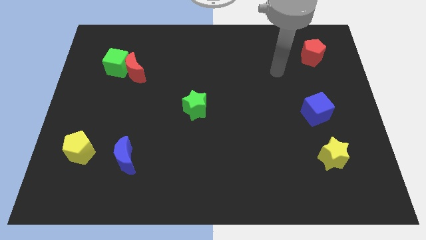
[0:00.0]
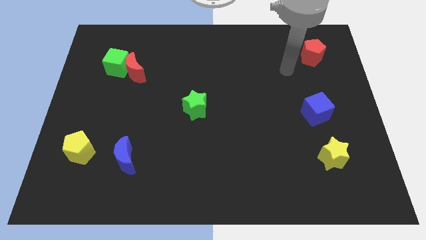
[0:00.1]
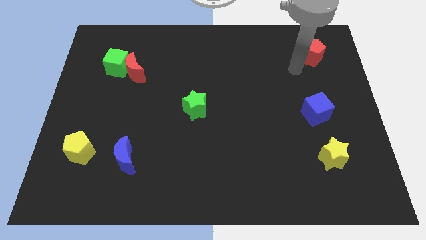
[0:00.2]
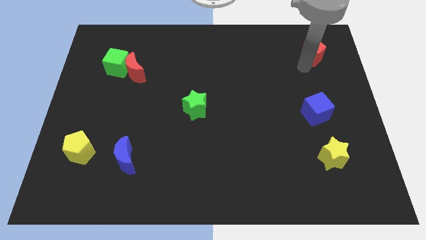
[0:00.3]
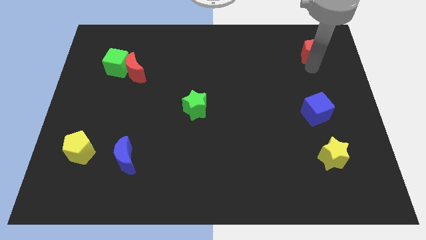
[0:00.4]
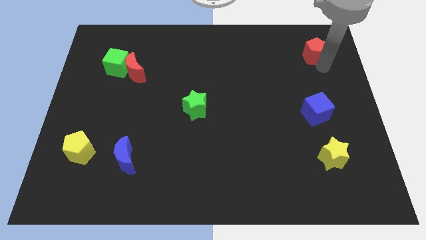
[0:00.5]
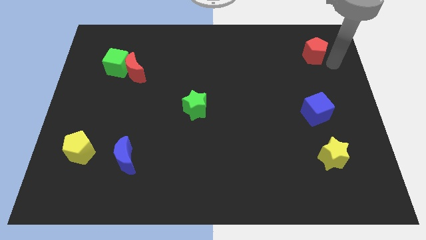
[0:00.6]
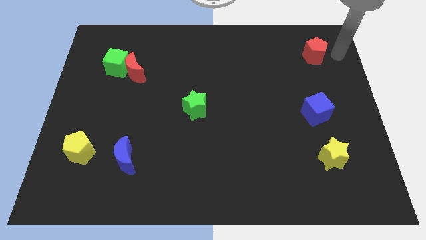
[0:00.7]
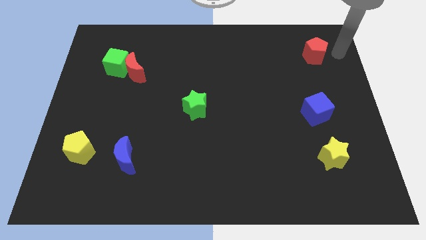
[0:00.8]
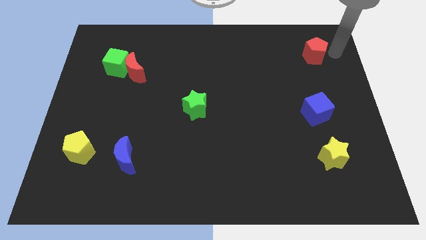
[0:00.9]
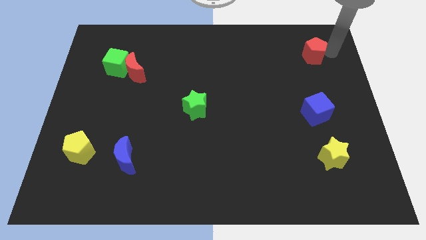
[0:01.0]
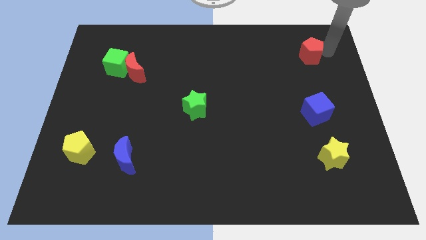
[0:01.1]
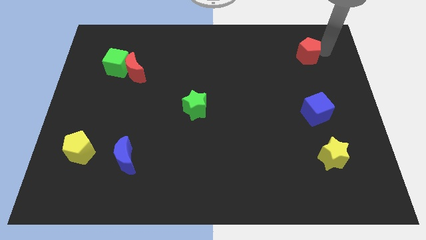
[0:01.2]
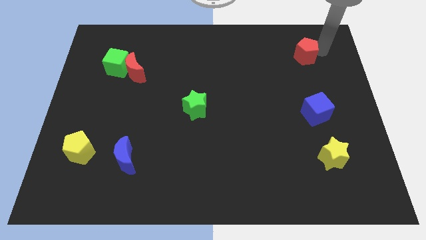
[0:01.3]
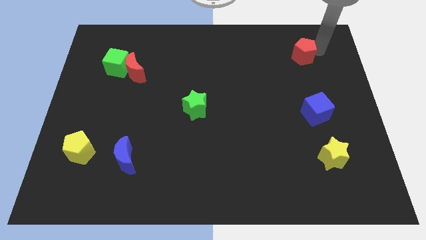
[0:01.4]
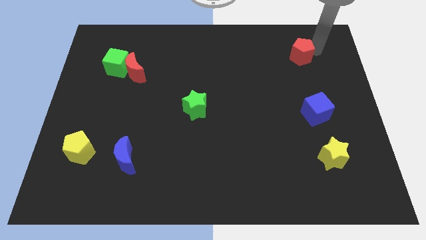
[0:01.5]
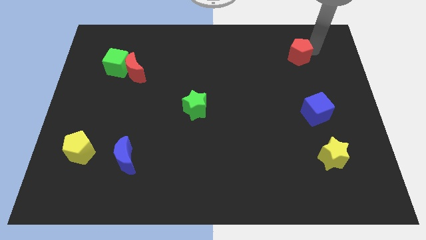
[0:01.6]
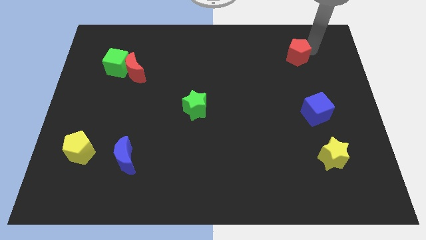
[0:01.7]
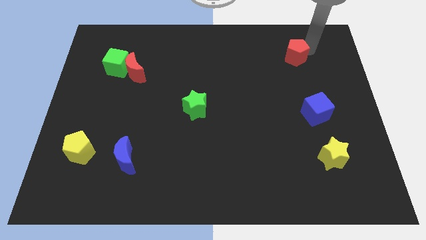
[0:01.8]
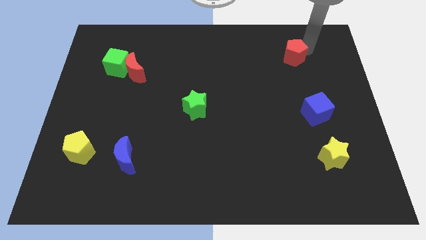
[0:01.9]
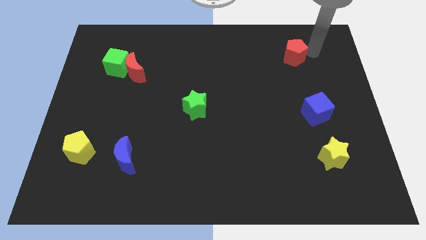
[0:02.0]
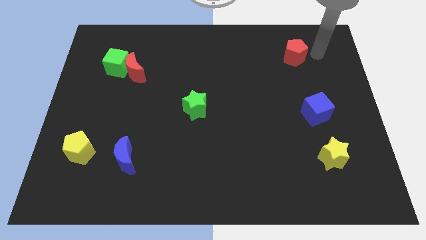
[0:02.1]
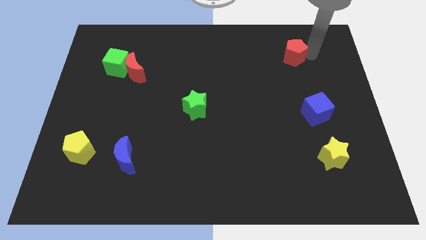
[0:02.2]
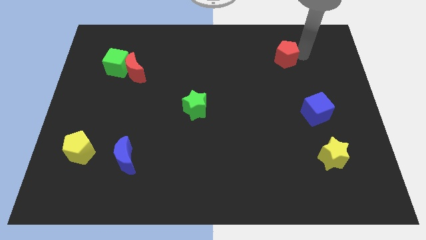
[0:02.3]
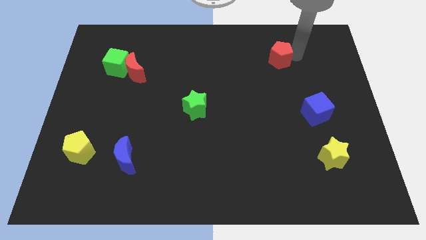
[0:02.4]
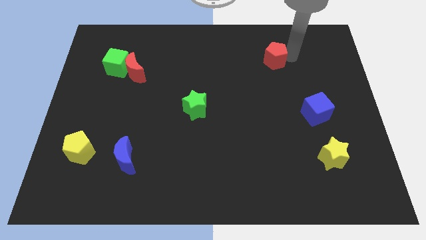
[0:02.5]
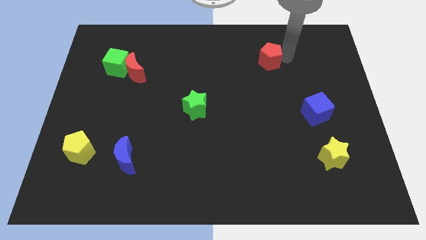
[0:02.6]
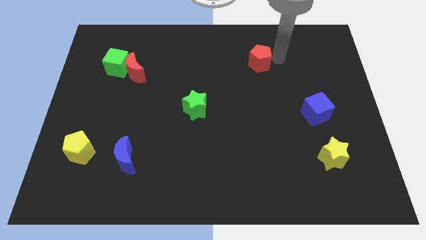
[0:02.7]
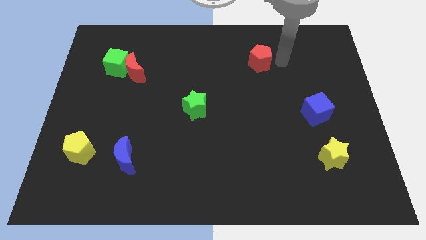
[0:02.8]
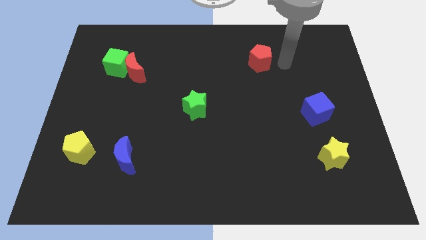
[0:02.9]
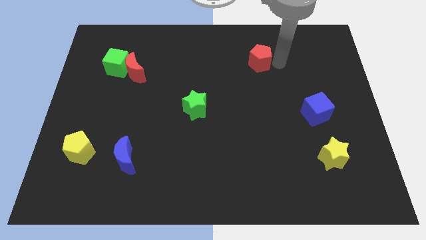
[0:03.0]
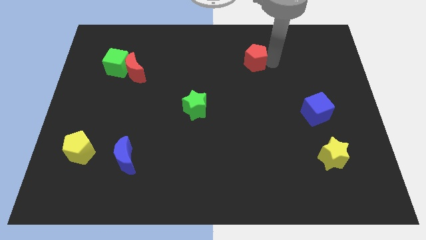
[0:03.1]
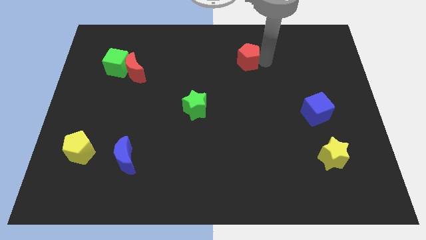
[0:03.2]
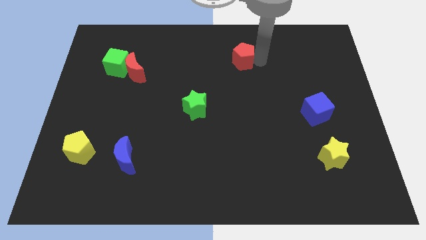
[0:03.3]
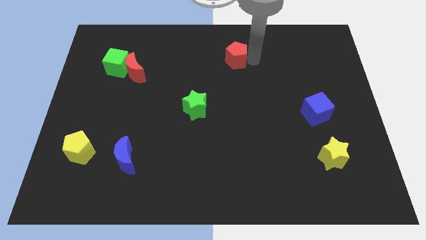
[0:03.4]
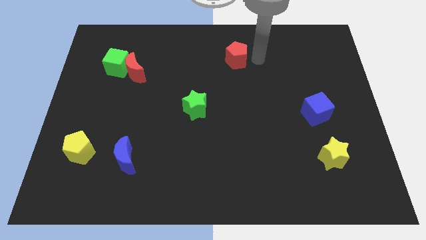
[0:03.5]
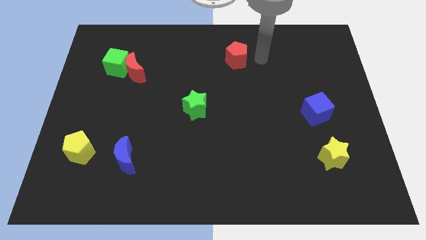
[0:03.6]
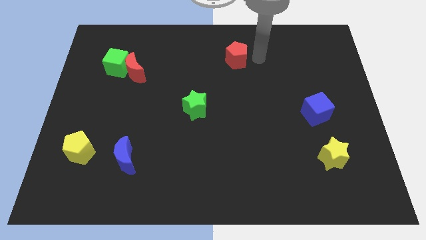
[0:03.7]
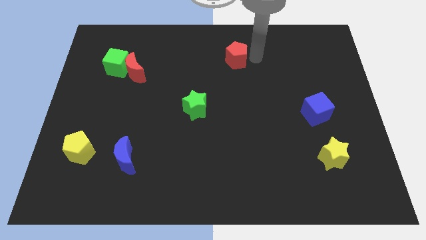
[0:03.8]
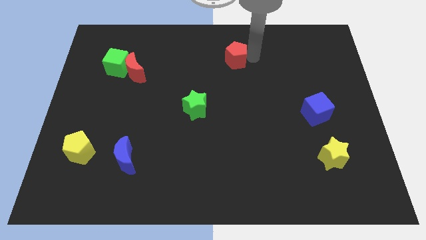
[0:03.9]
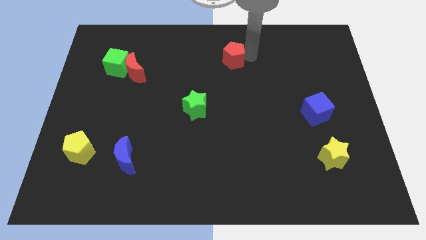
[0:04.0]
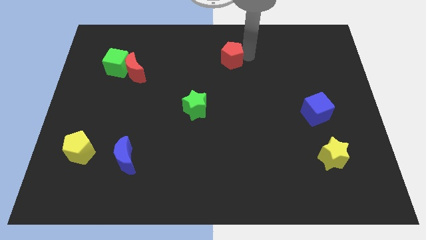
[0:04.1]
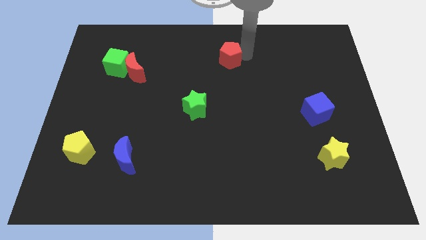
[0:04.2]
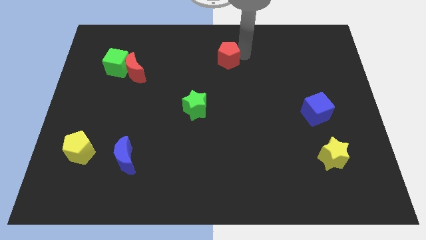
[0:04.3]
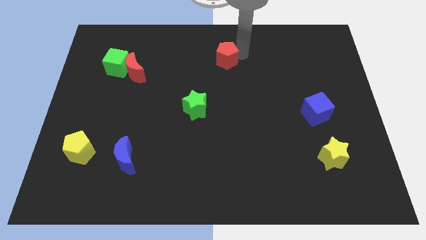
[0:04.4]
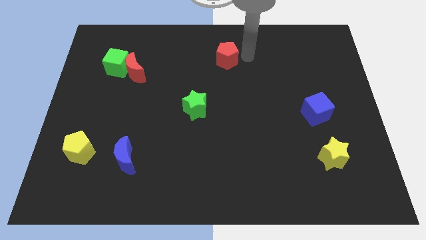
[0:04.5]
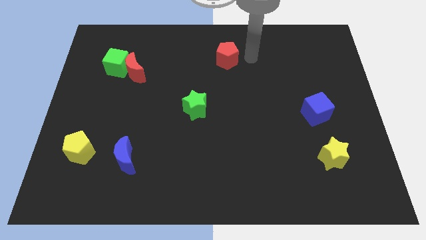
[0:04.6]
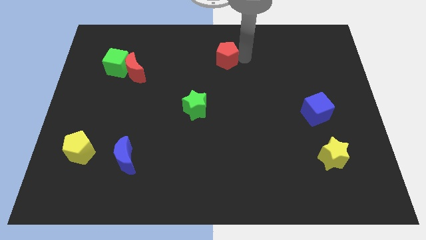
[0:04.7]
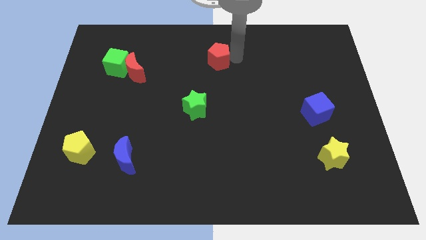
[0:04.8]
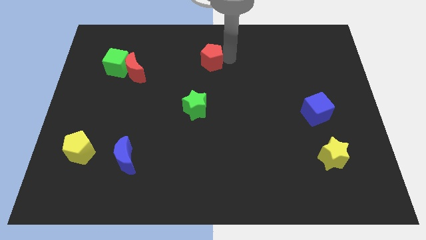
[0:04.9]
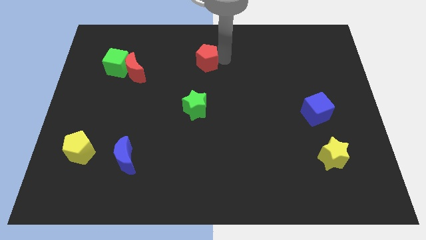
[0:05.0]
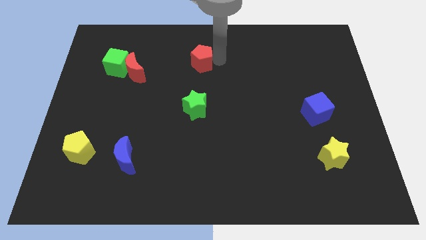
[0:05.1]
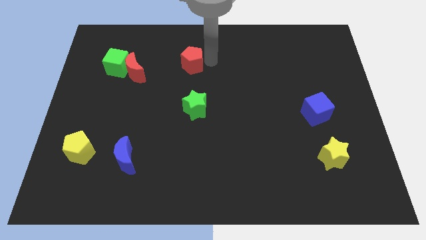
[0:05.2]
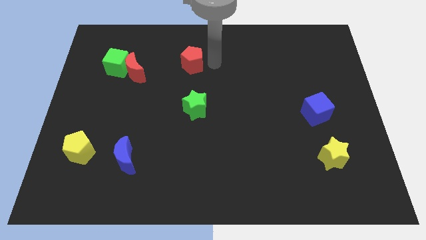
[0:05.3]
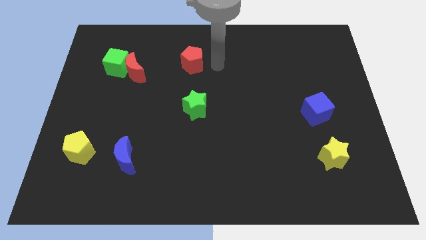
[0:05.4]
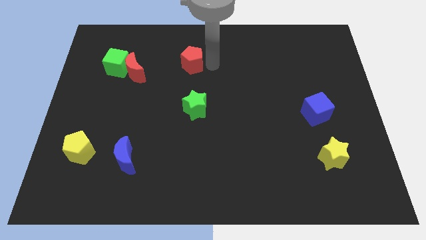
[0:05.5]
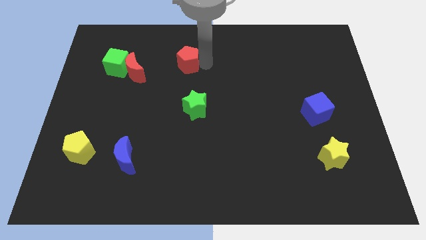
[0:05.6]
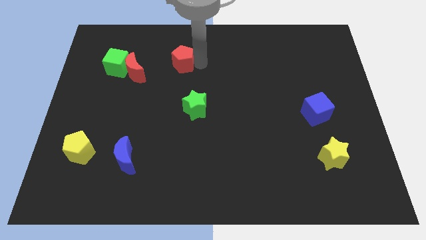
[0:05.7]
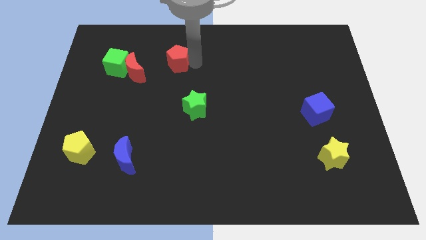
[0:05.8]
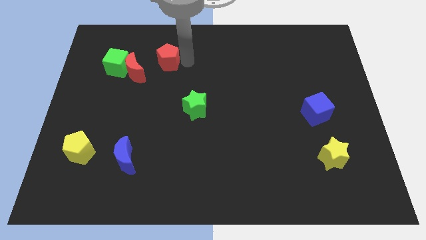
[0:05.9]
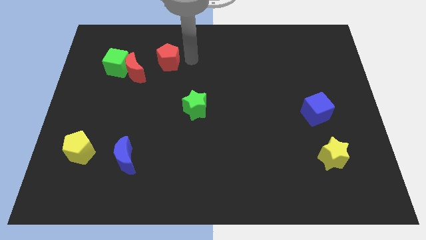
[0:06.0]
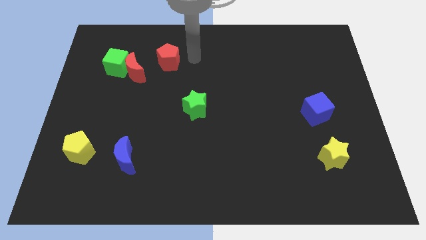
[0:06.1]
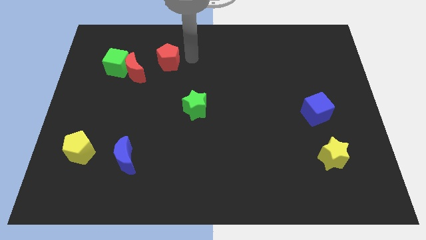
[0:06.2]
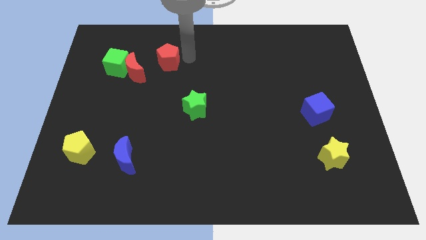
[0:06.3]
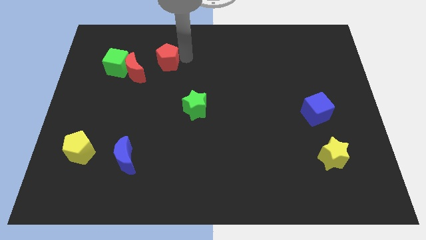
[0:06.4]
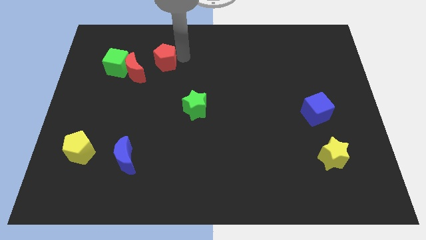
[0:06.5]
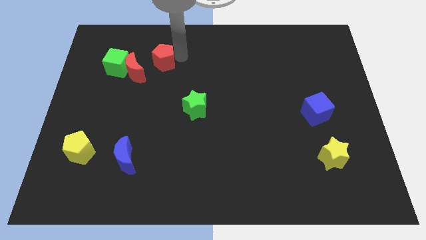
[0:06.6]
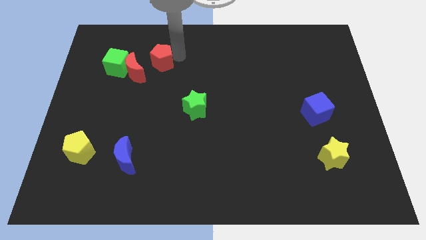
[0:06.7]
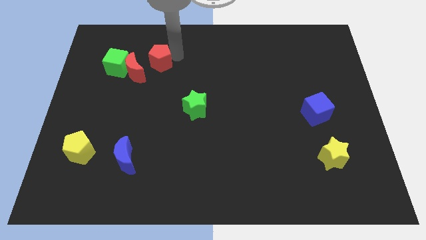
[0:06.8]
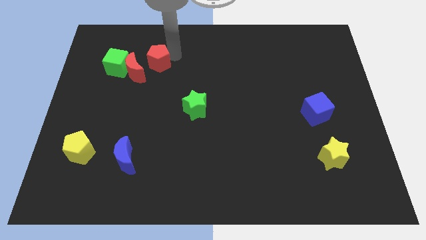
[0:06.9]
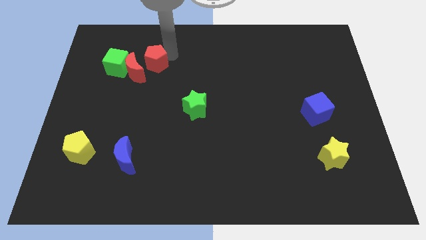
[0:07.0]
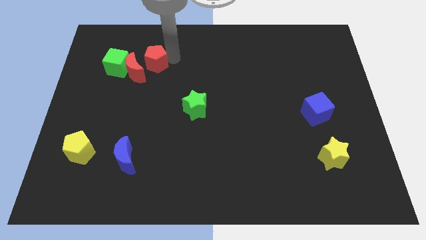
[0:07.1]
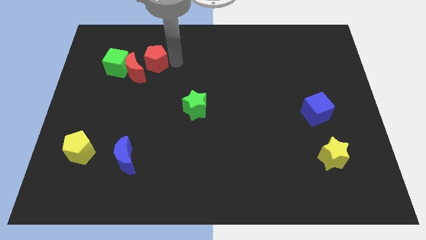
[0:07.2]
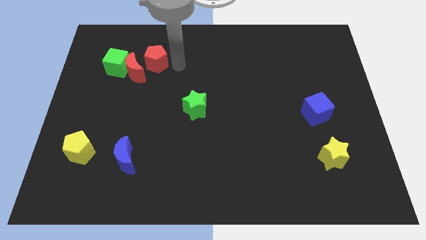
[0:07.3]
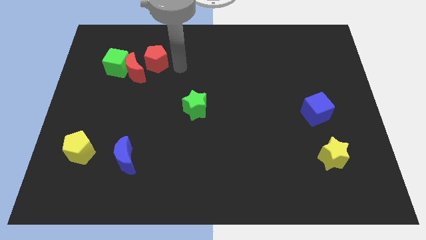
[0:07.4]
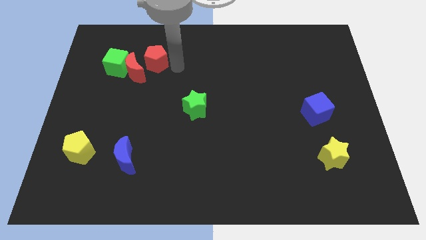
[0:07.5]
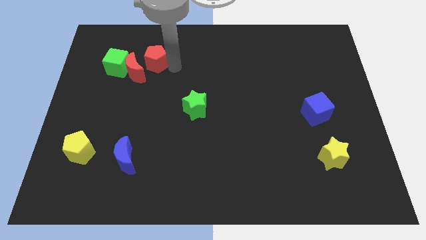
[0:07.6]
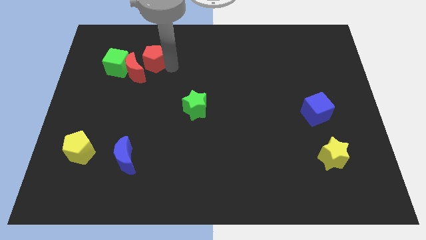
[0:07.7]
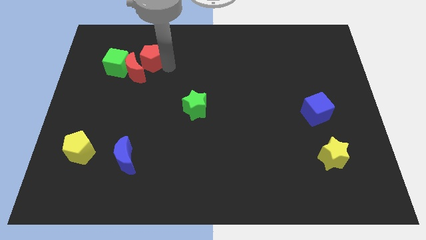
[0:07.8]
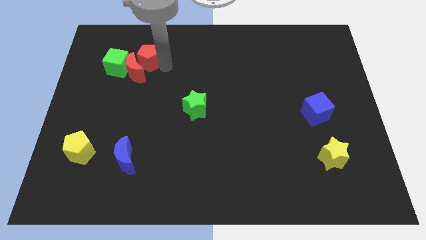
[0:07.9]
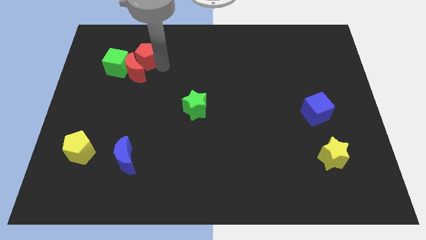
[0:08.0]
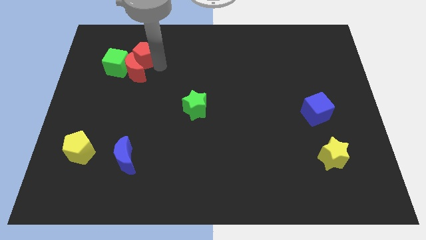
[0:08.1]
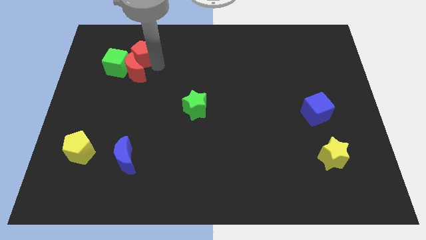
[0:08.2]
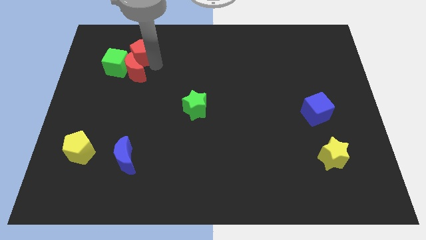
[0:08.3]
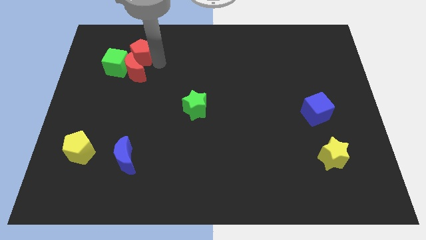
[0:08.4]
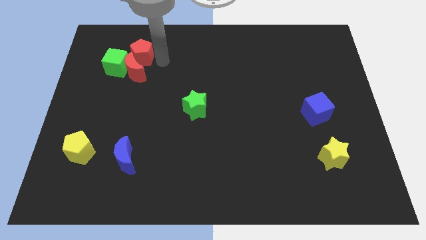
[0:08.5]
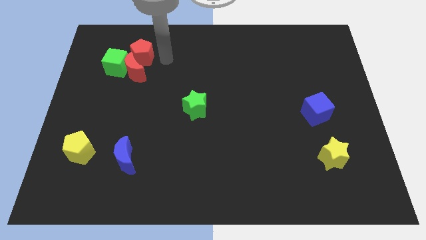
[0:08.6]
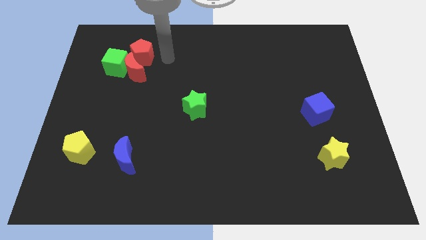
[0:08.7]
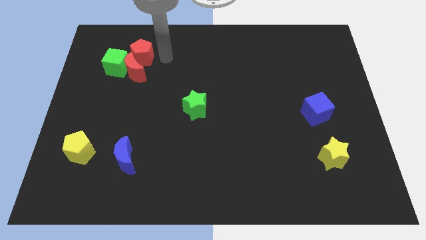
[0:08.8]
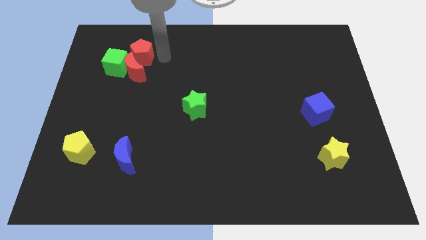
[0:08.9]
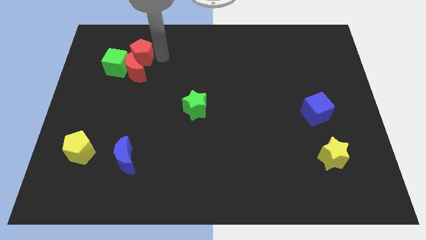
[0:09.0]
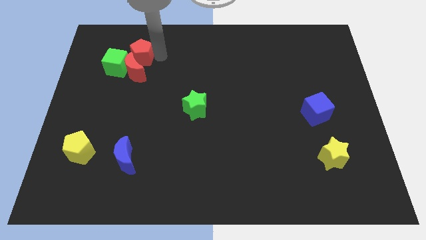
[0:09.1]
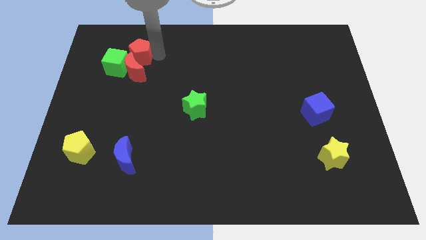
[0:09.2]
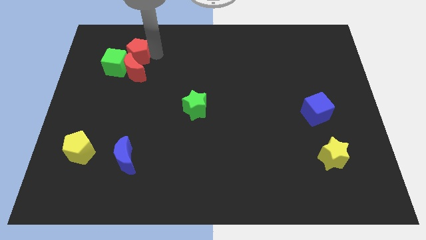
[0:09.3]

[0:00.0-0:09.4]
push the red pentagon to the top left side of the red moon
